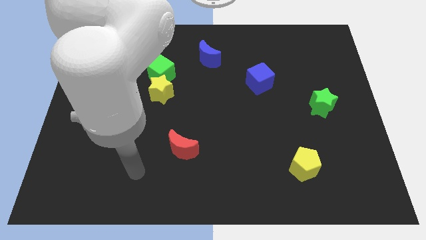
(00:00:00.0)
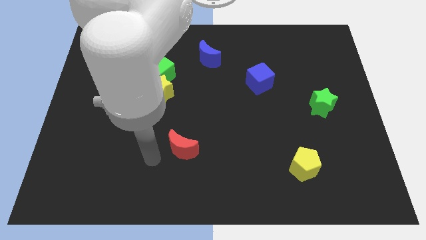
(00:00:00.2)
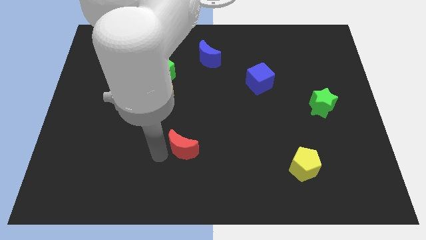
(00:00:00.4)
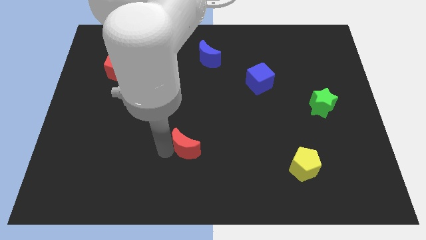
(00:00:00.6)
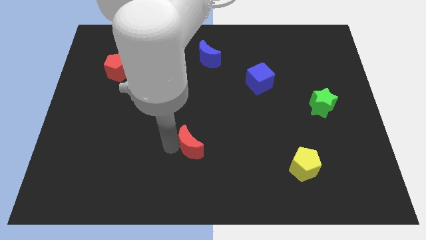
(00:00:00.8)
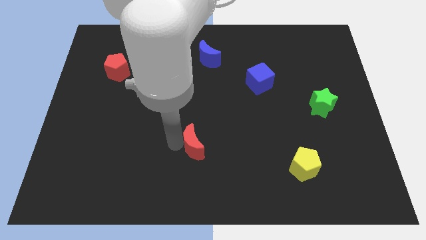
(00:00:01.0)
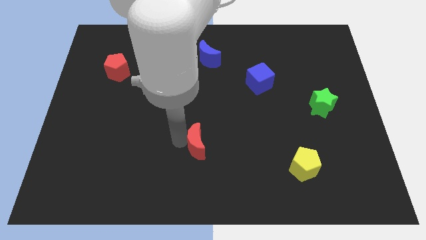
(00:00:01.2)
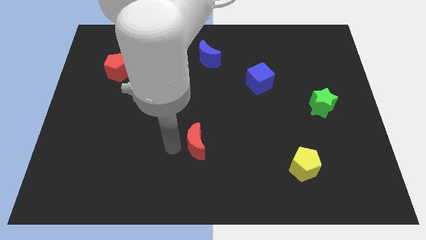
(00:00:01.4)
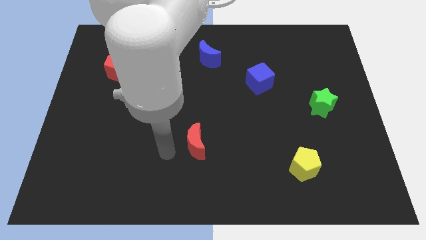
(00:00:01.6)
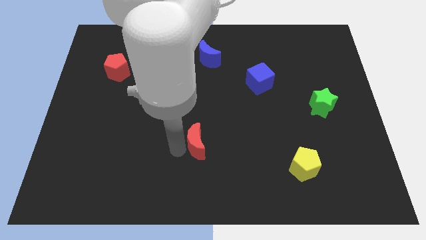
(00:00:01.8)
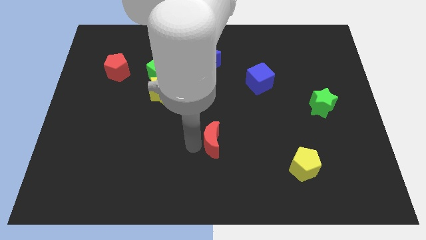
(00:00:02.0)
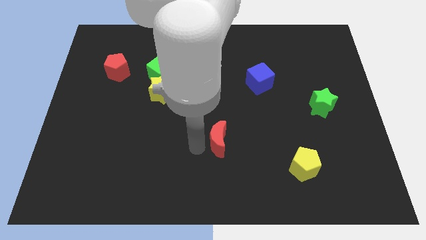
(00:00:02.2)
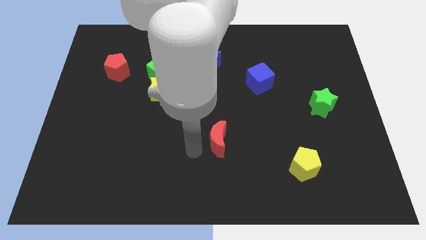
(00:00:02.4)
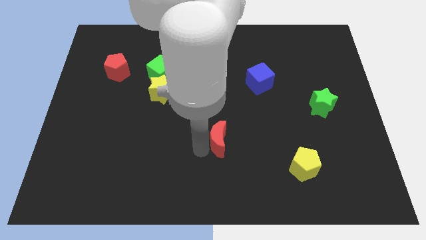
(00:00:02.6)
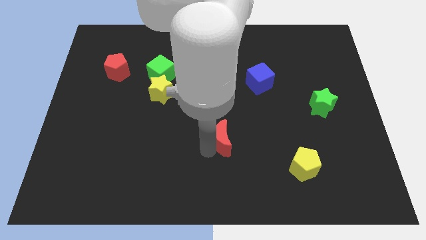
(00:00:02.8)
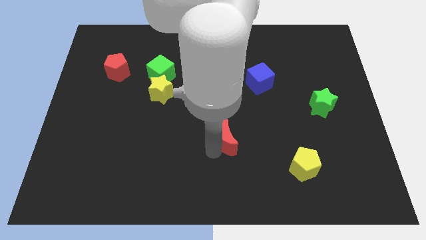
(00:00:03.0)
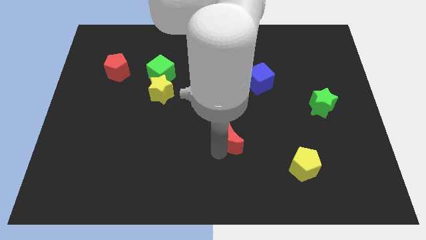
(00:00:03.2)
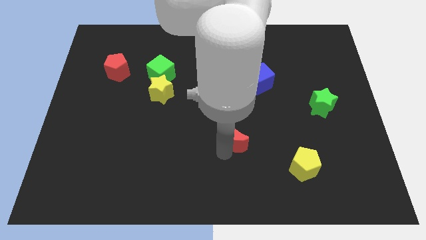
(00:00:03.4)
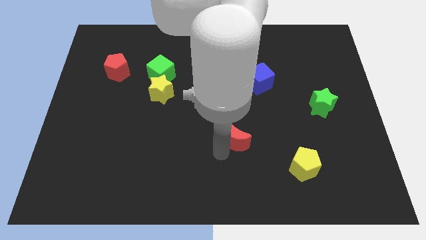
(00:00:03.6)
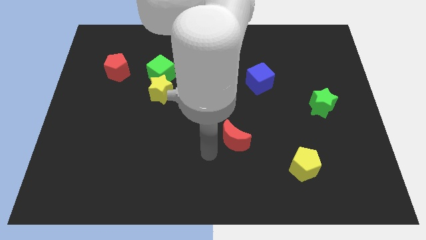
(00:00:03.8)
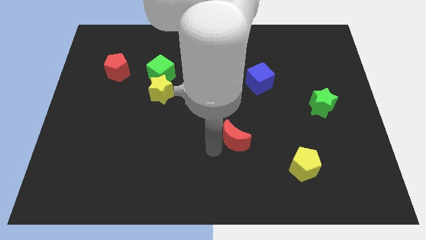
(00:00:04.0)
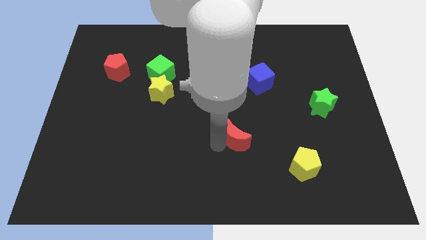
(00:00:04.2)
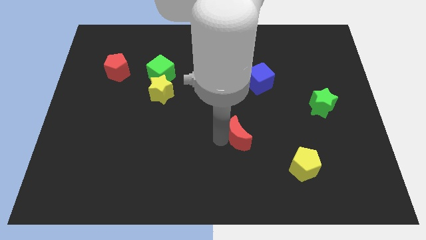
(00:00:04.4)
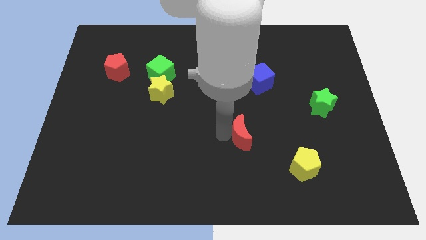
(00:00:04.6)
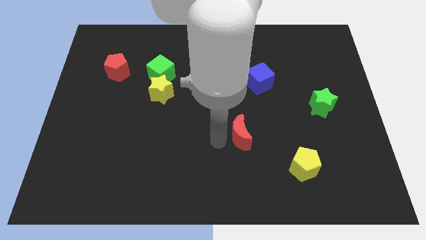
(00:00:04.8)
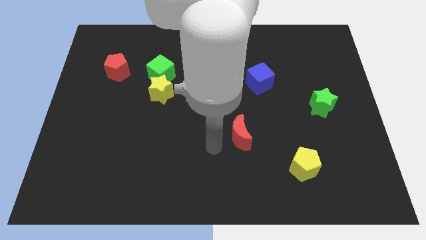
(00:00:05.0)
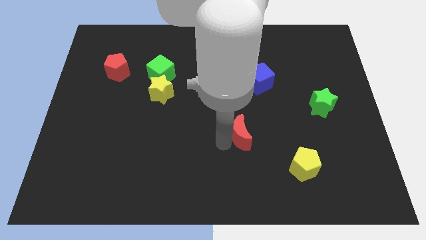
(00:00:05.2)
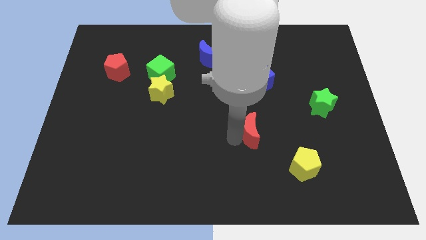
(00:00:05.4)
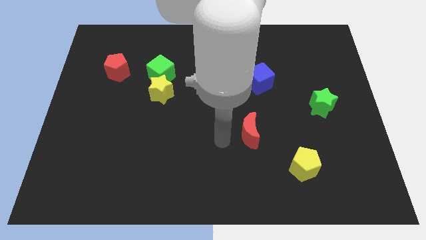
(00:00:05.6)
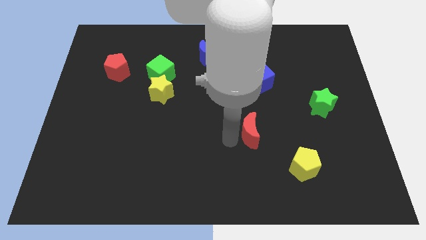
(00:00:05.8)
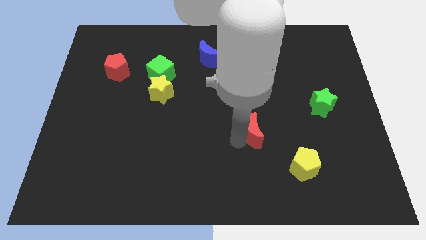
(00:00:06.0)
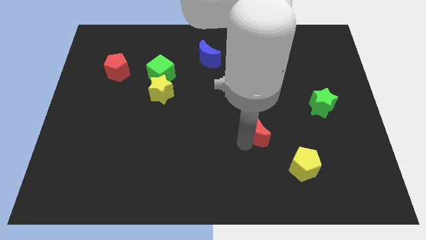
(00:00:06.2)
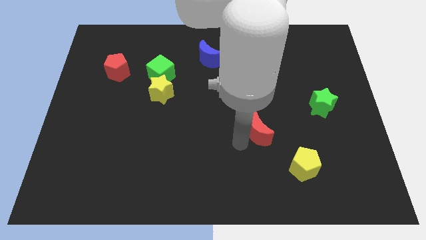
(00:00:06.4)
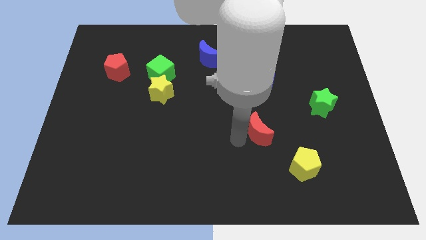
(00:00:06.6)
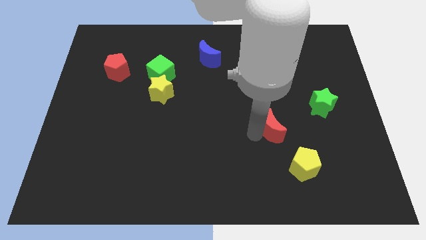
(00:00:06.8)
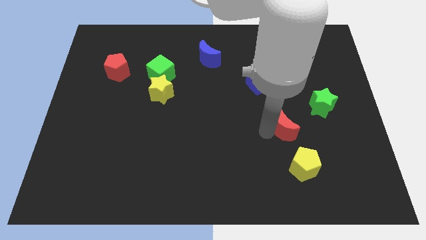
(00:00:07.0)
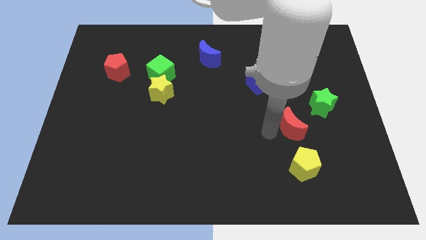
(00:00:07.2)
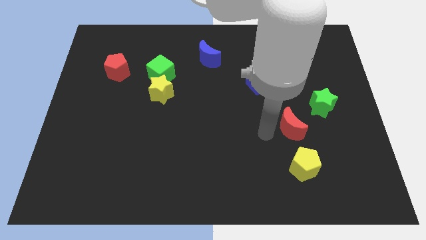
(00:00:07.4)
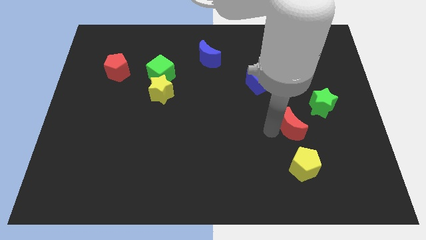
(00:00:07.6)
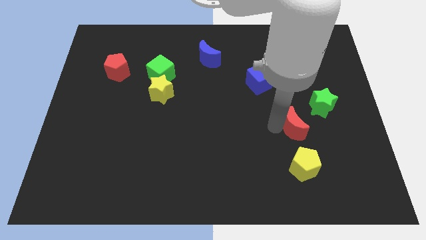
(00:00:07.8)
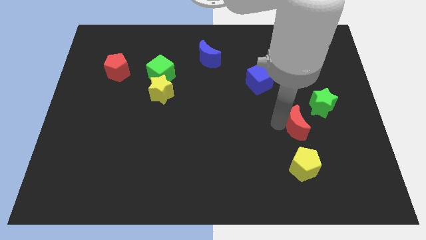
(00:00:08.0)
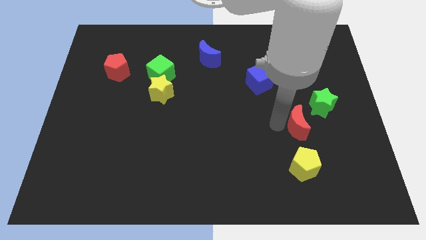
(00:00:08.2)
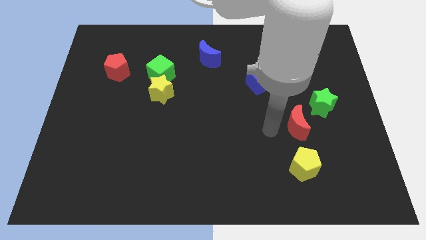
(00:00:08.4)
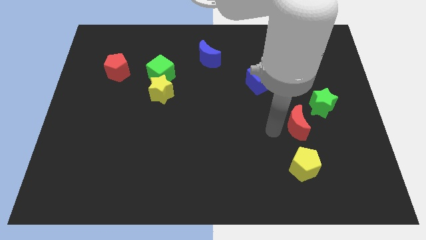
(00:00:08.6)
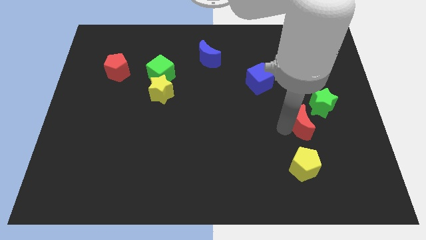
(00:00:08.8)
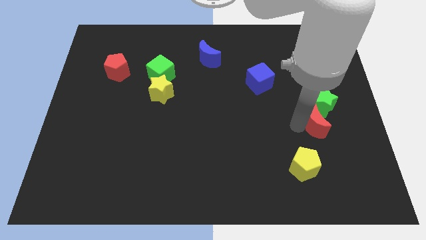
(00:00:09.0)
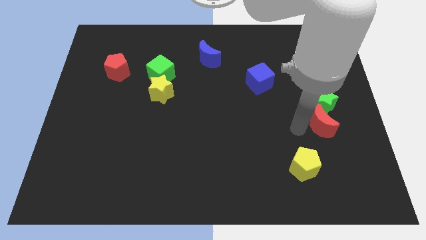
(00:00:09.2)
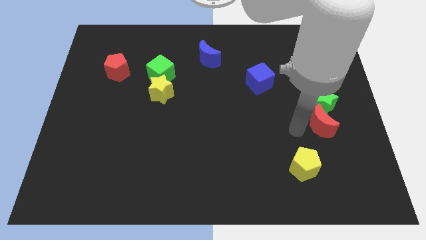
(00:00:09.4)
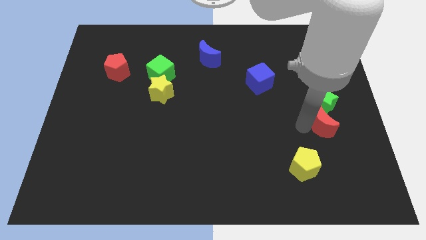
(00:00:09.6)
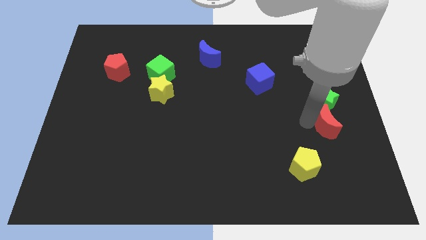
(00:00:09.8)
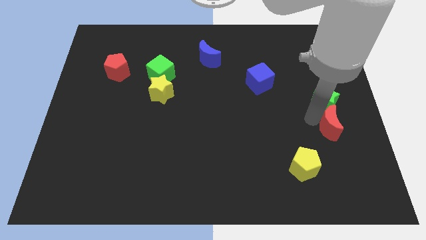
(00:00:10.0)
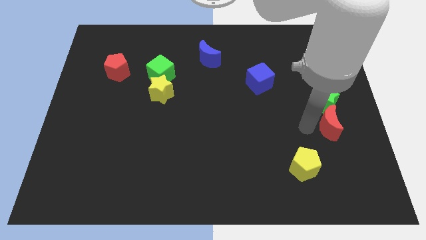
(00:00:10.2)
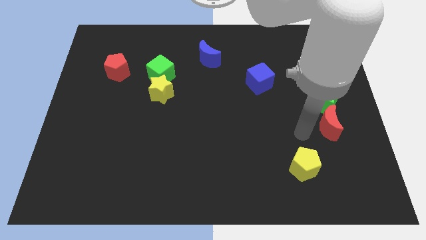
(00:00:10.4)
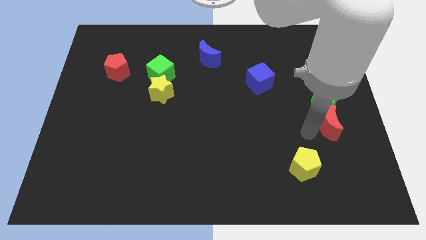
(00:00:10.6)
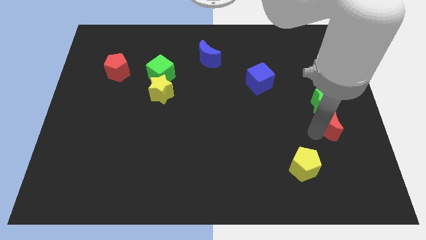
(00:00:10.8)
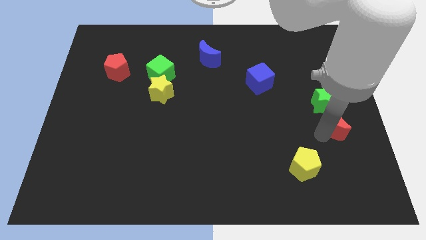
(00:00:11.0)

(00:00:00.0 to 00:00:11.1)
slide the red moon to the right side of the board
